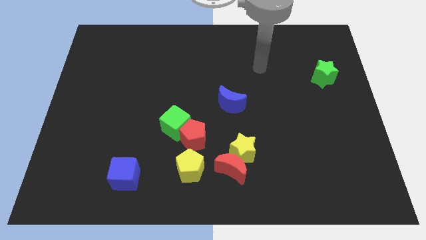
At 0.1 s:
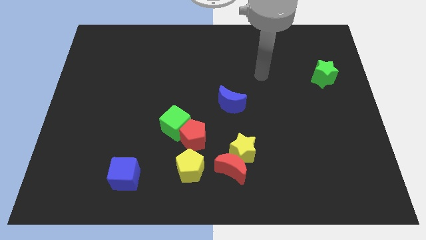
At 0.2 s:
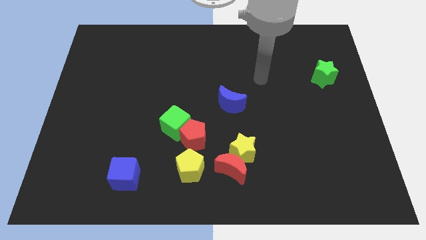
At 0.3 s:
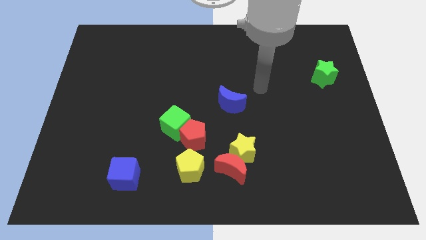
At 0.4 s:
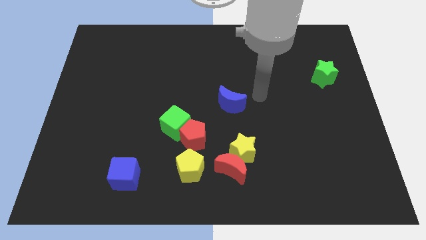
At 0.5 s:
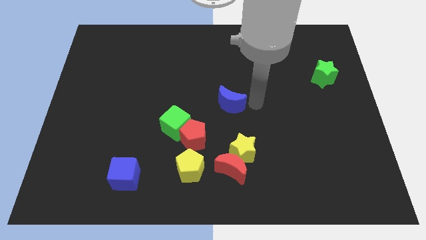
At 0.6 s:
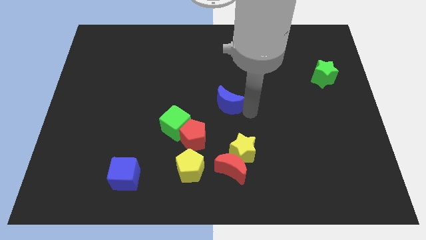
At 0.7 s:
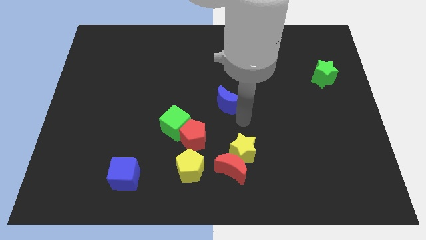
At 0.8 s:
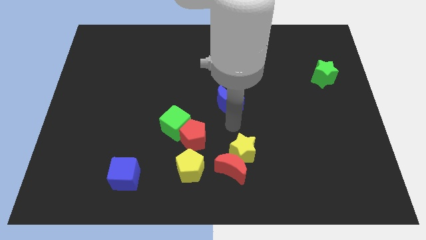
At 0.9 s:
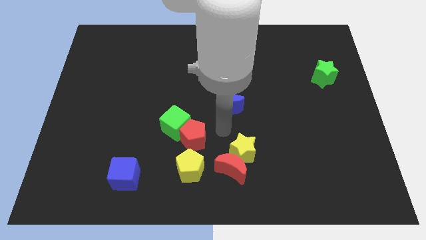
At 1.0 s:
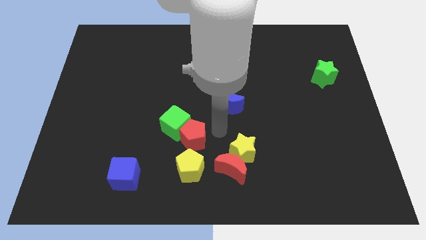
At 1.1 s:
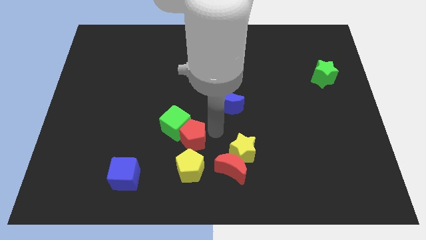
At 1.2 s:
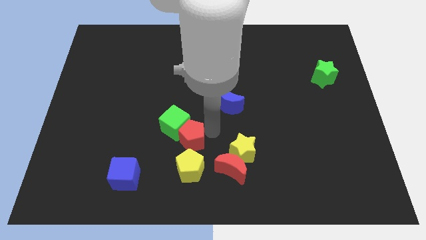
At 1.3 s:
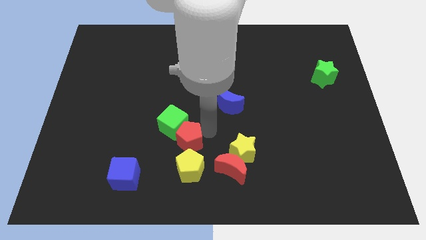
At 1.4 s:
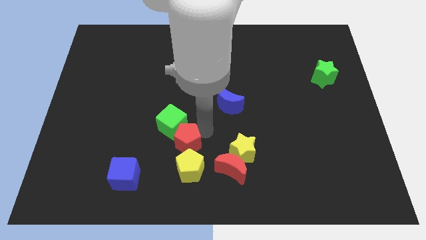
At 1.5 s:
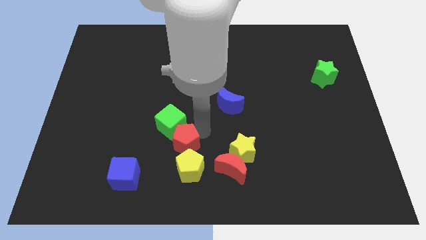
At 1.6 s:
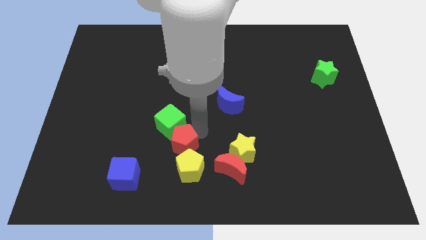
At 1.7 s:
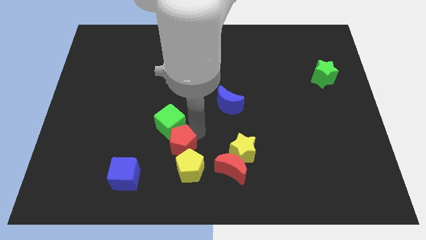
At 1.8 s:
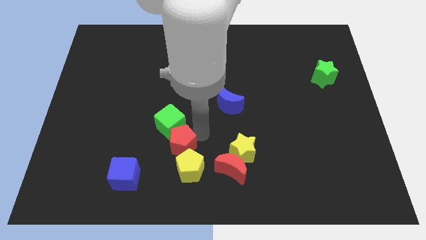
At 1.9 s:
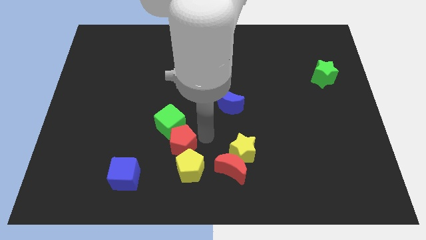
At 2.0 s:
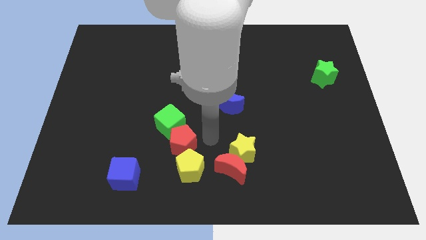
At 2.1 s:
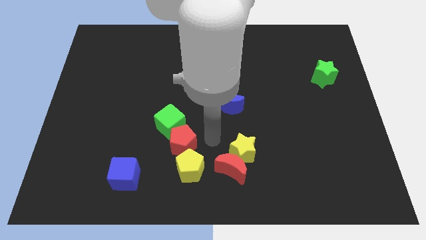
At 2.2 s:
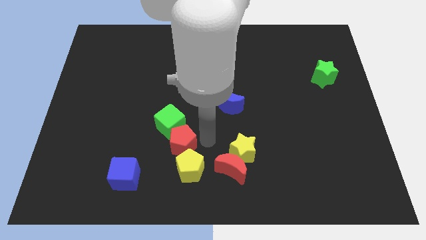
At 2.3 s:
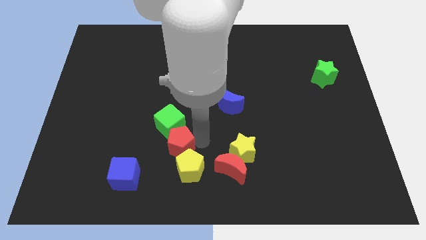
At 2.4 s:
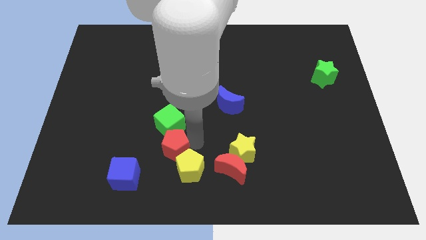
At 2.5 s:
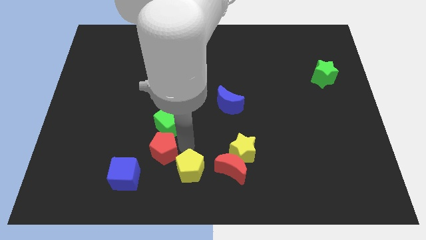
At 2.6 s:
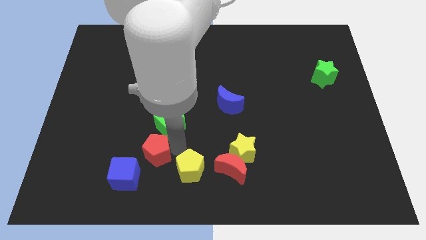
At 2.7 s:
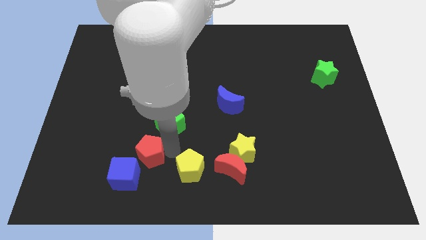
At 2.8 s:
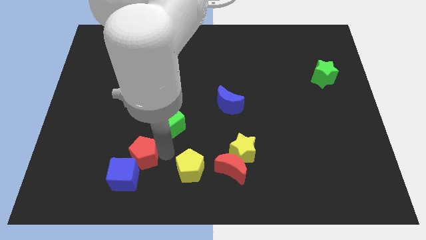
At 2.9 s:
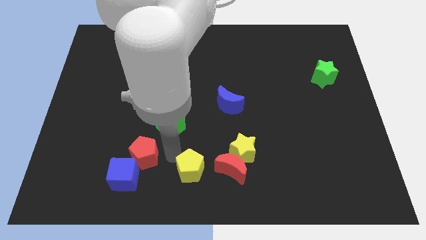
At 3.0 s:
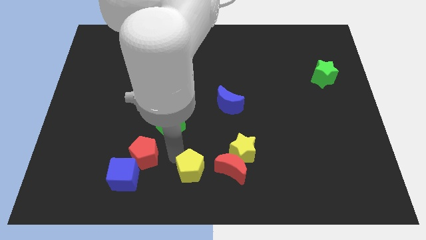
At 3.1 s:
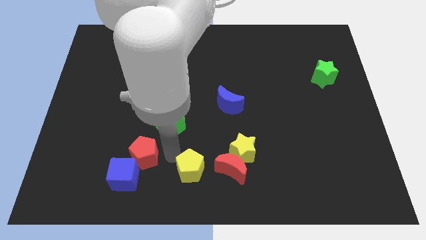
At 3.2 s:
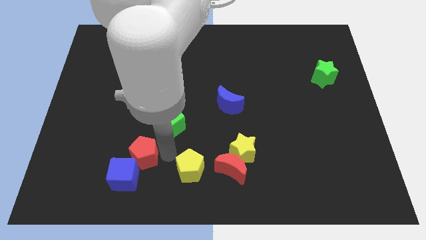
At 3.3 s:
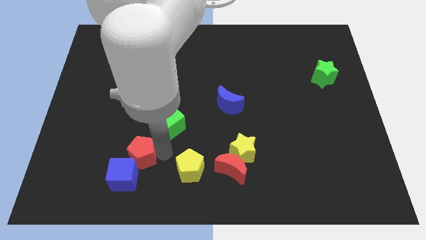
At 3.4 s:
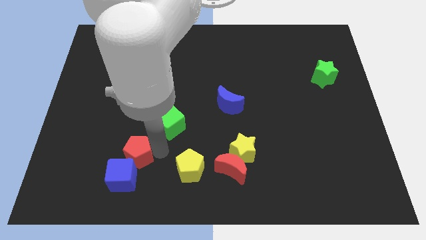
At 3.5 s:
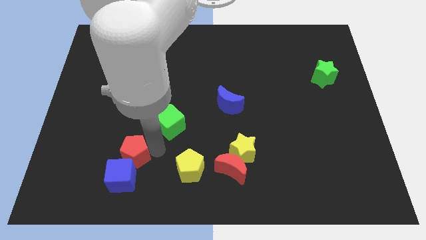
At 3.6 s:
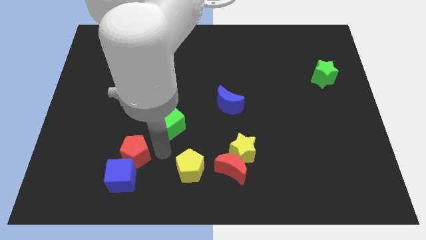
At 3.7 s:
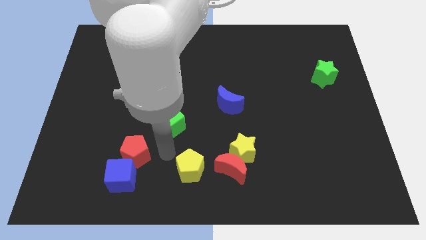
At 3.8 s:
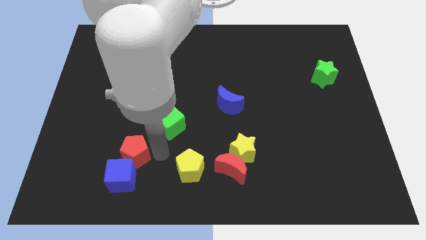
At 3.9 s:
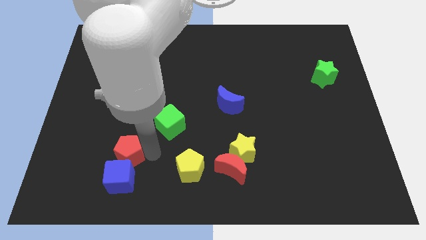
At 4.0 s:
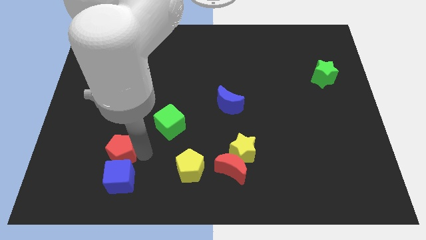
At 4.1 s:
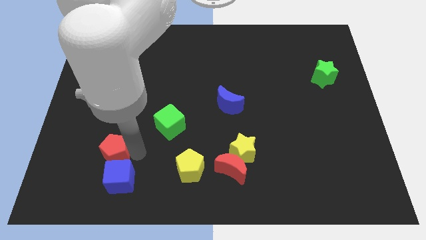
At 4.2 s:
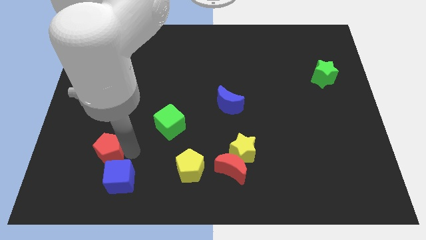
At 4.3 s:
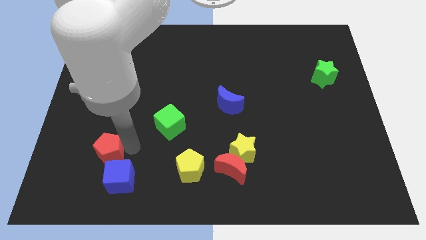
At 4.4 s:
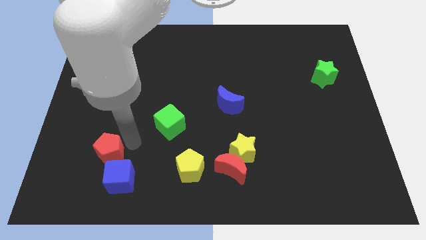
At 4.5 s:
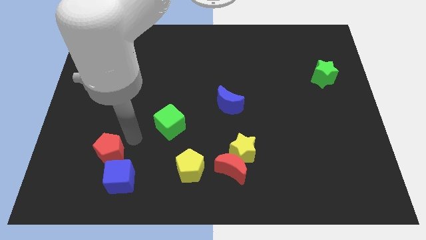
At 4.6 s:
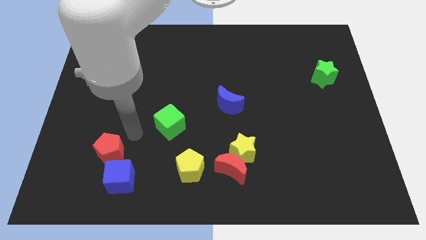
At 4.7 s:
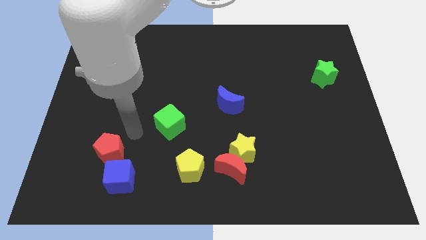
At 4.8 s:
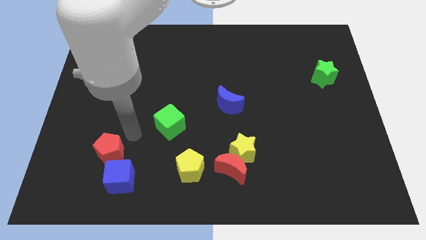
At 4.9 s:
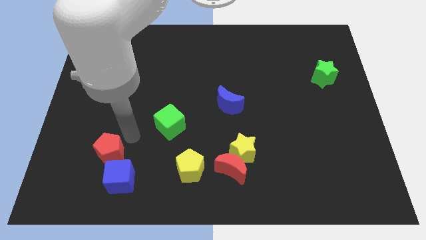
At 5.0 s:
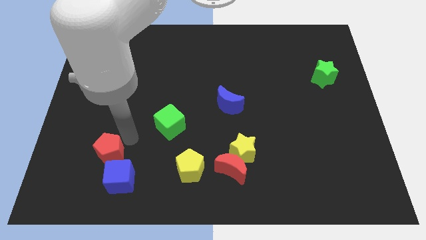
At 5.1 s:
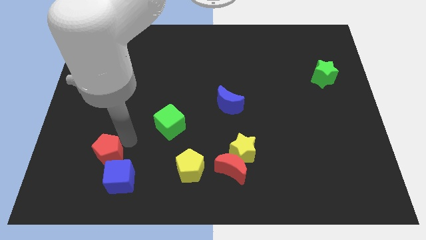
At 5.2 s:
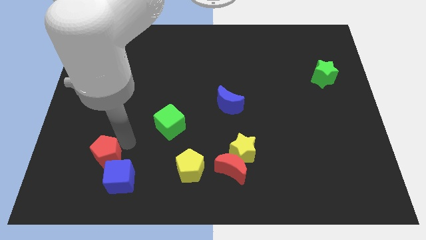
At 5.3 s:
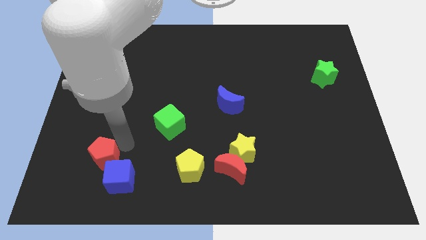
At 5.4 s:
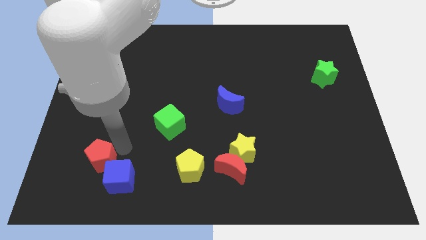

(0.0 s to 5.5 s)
slide the red pentagon to the left side of the blue cube

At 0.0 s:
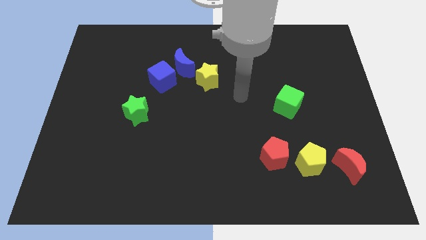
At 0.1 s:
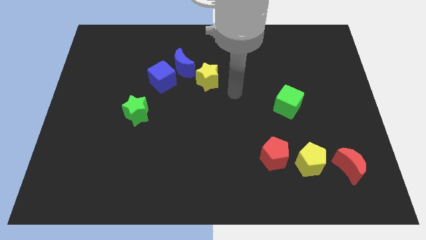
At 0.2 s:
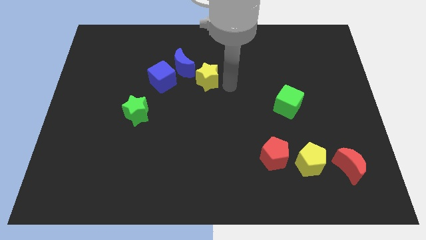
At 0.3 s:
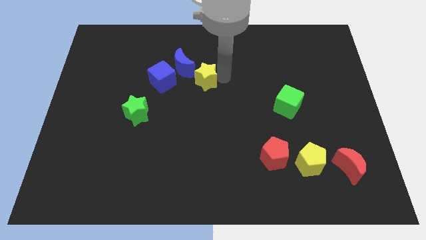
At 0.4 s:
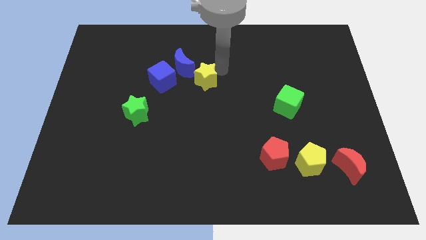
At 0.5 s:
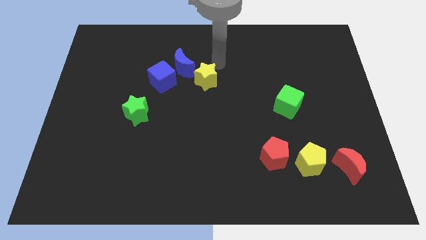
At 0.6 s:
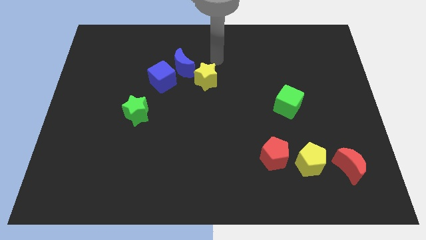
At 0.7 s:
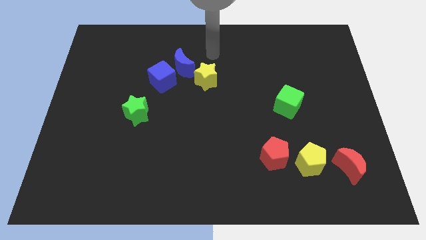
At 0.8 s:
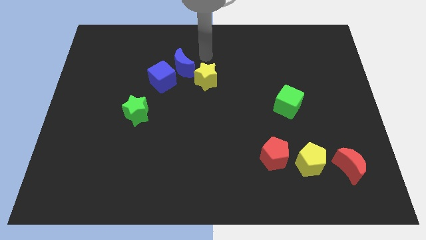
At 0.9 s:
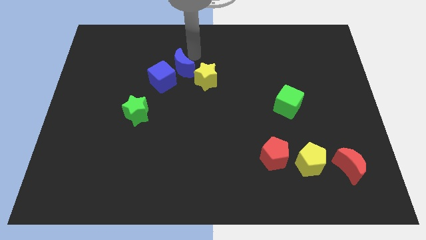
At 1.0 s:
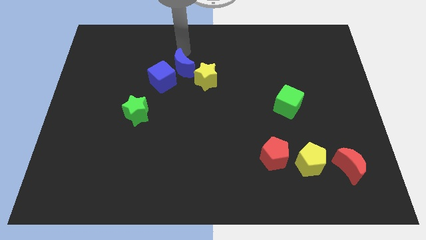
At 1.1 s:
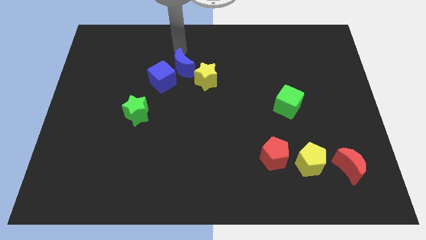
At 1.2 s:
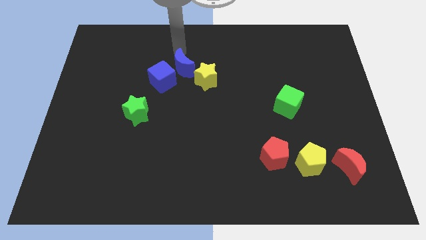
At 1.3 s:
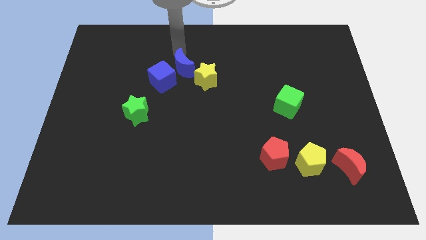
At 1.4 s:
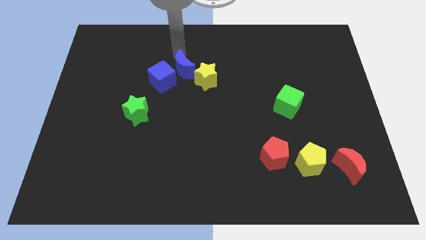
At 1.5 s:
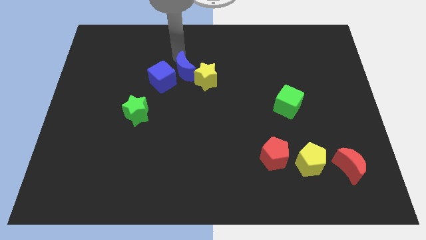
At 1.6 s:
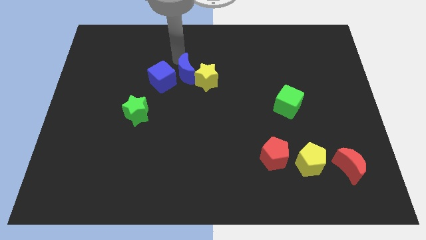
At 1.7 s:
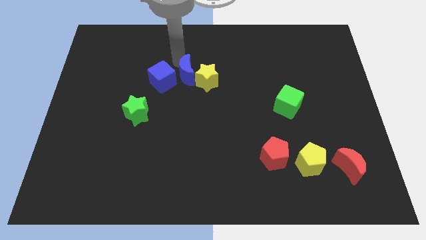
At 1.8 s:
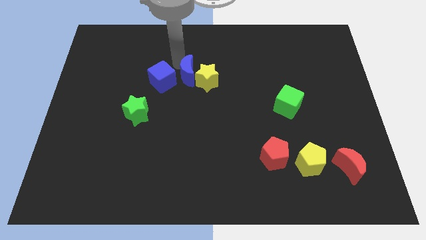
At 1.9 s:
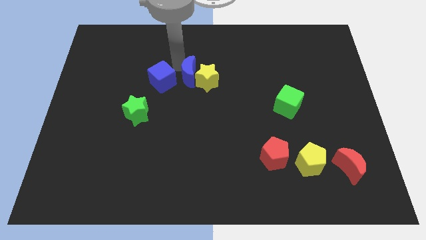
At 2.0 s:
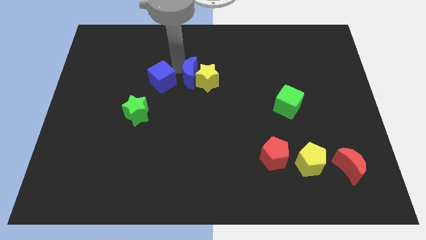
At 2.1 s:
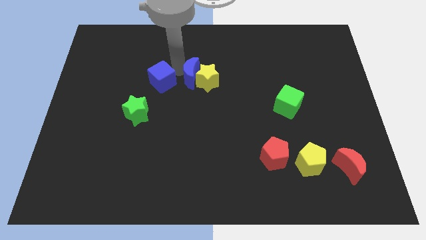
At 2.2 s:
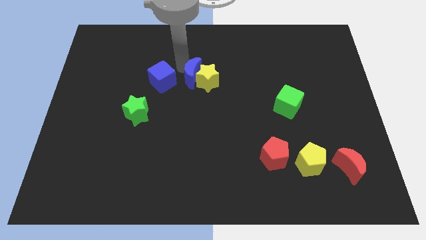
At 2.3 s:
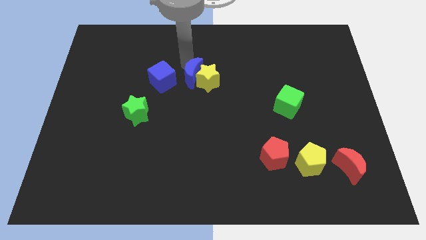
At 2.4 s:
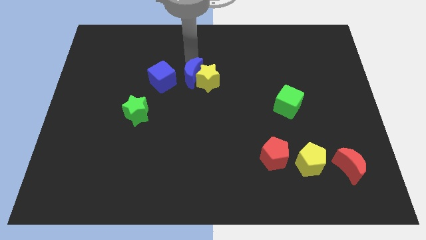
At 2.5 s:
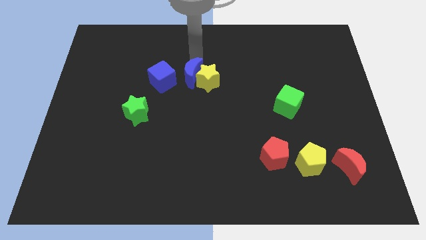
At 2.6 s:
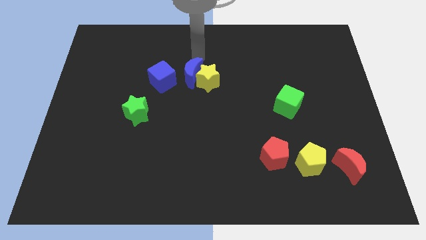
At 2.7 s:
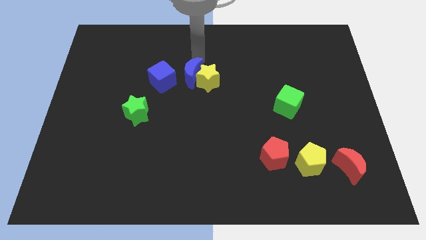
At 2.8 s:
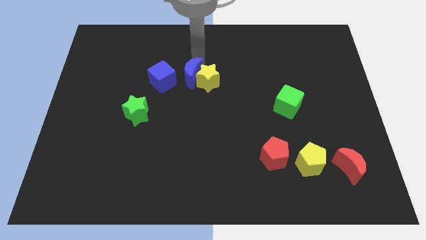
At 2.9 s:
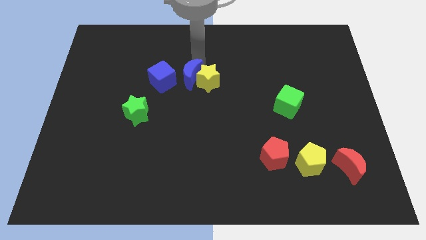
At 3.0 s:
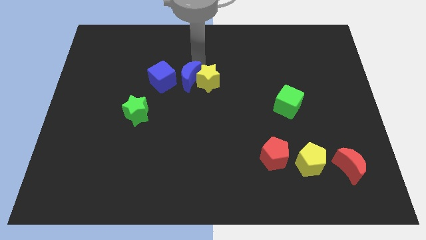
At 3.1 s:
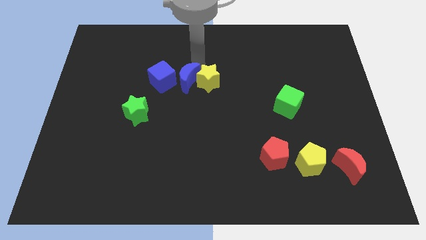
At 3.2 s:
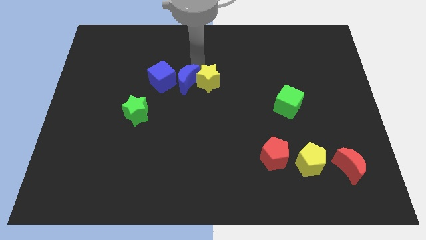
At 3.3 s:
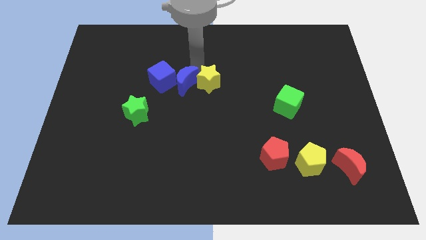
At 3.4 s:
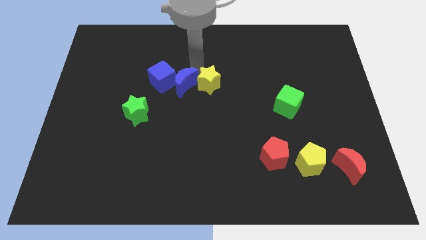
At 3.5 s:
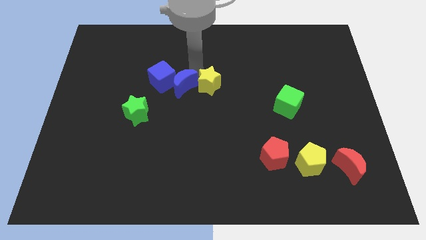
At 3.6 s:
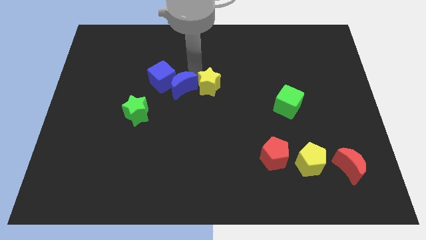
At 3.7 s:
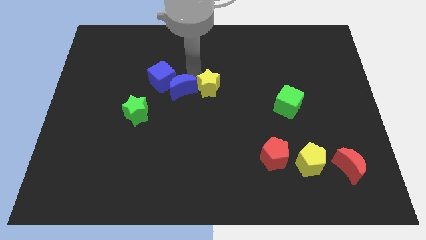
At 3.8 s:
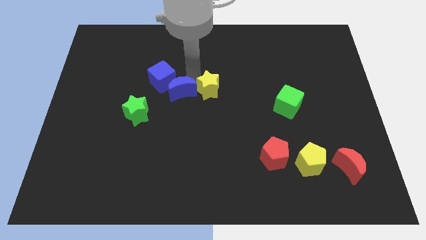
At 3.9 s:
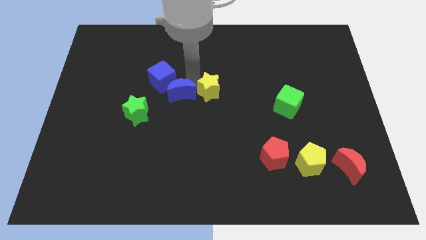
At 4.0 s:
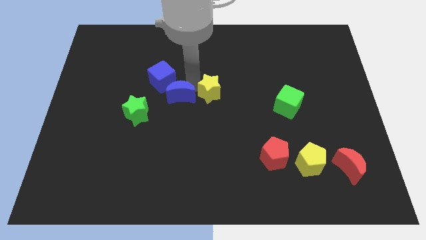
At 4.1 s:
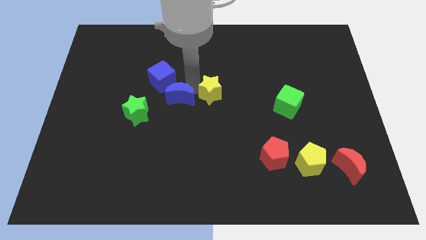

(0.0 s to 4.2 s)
move the blue moon to the right side of the green star
